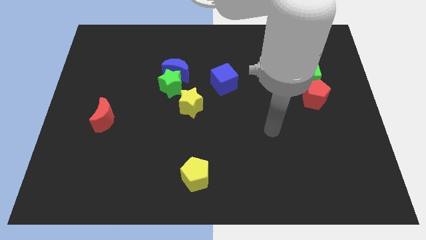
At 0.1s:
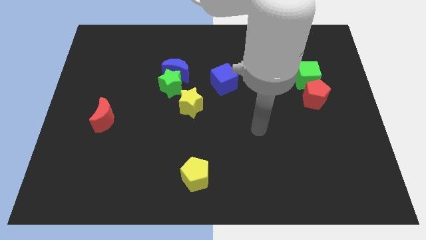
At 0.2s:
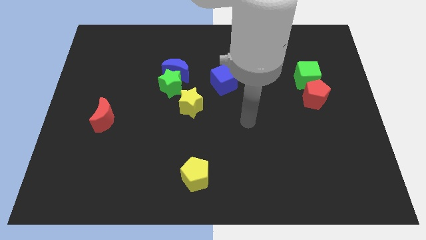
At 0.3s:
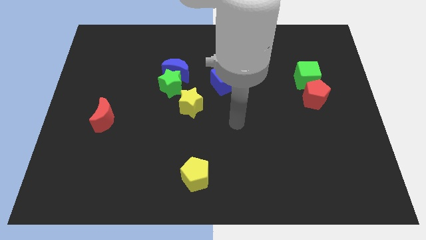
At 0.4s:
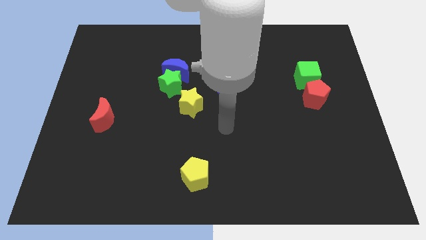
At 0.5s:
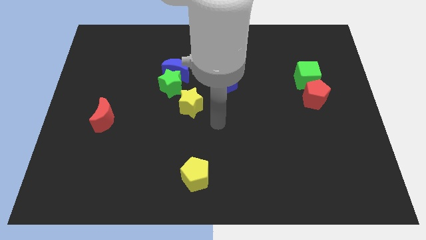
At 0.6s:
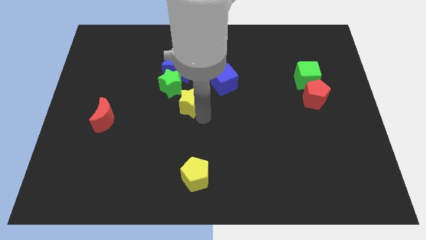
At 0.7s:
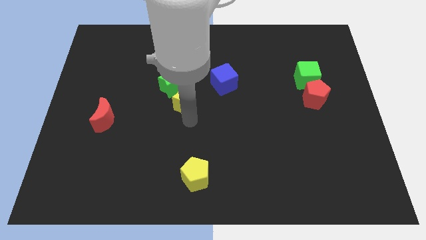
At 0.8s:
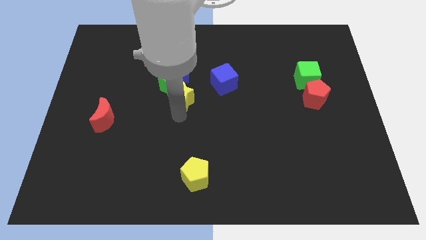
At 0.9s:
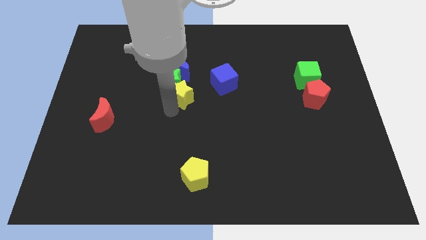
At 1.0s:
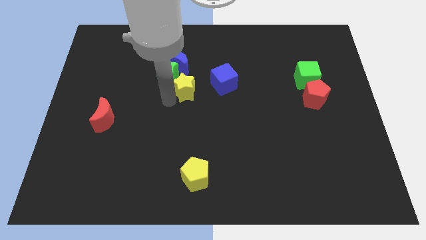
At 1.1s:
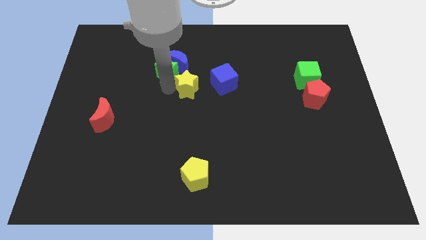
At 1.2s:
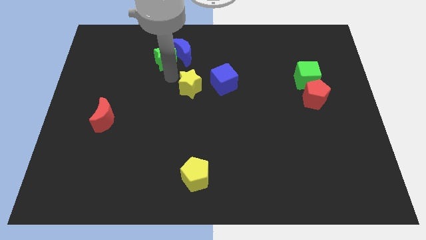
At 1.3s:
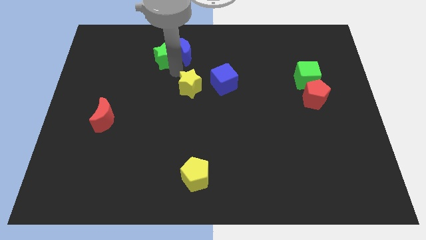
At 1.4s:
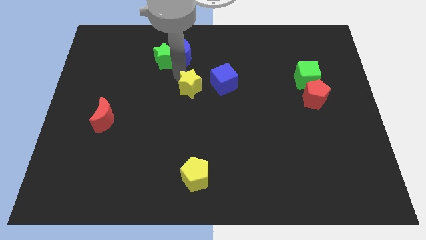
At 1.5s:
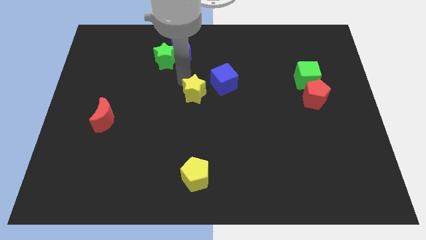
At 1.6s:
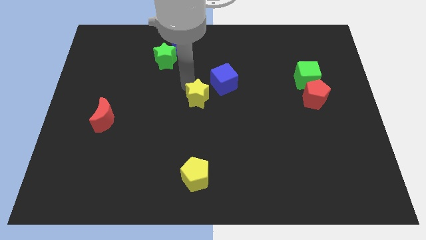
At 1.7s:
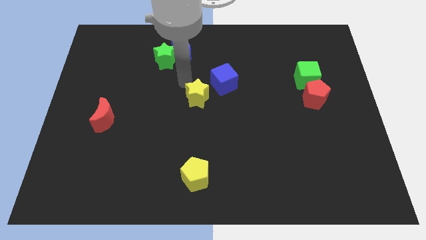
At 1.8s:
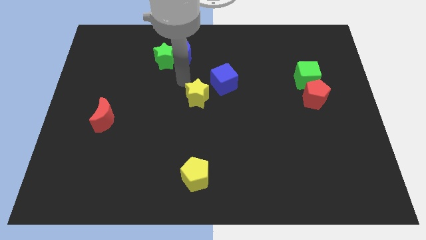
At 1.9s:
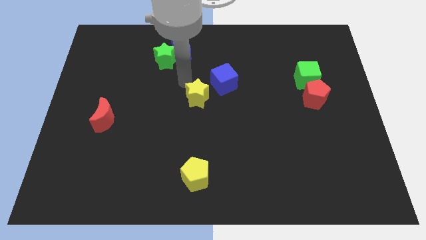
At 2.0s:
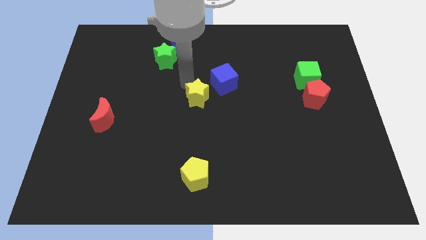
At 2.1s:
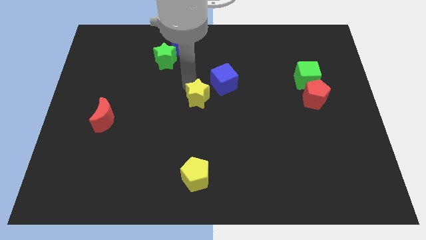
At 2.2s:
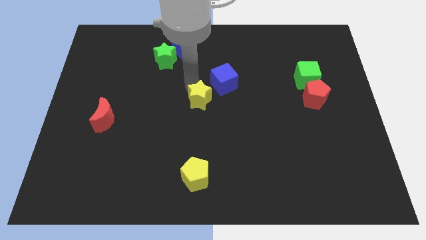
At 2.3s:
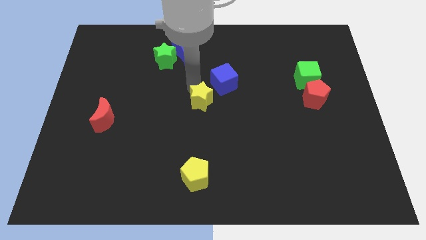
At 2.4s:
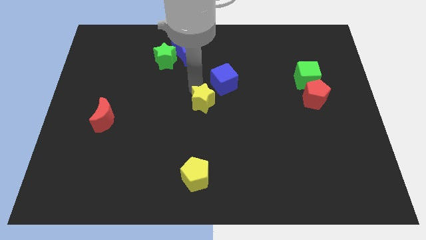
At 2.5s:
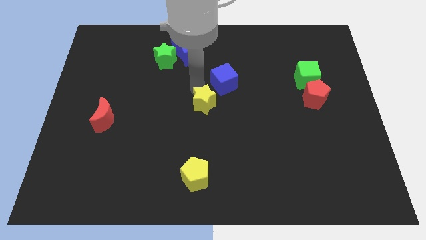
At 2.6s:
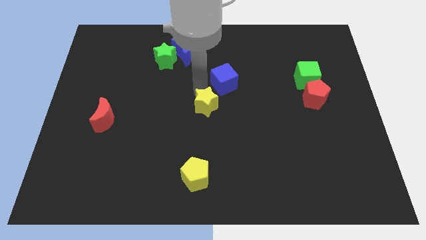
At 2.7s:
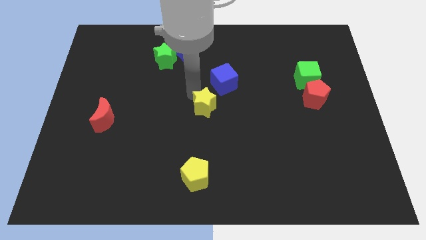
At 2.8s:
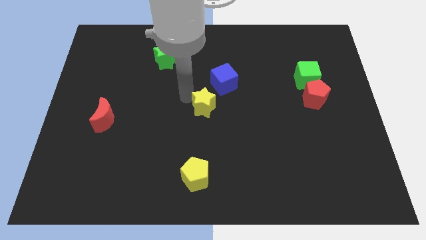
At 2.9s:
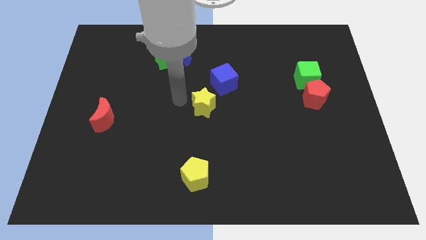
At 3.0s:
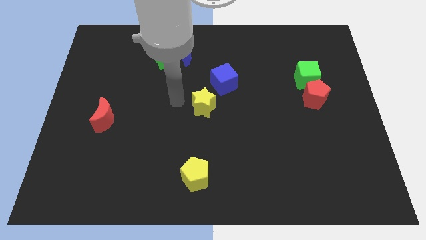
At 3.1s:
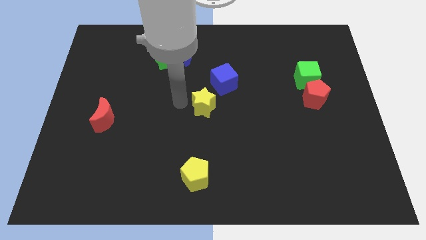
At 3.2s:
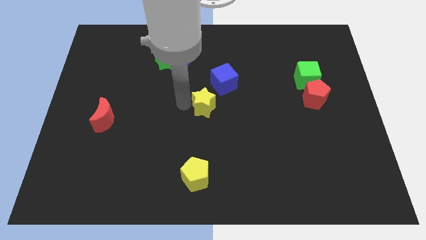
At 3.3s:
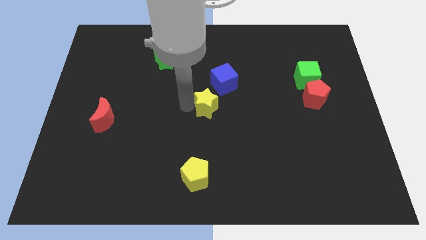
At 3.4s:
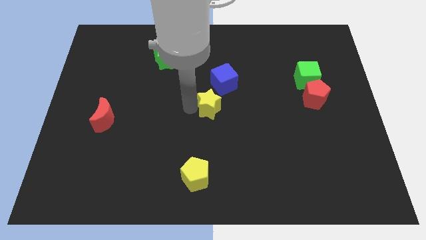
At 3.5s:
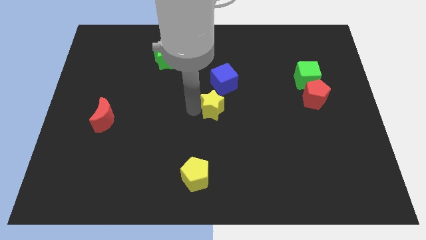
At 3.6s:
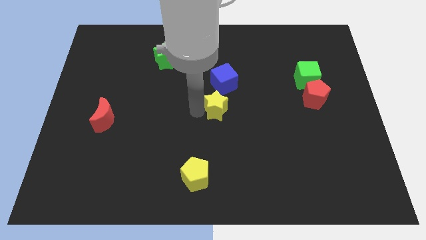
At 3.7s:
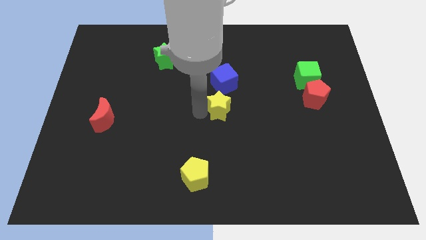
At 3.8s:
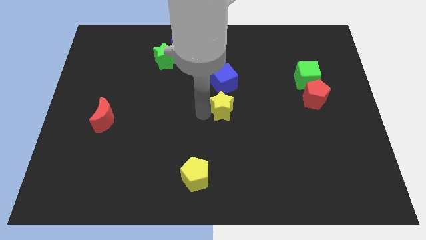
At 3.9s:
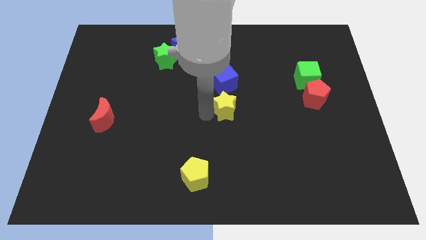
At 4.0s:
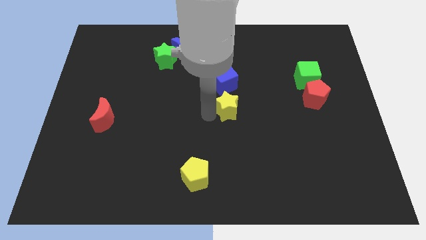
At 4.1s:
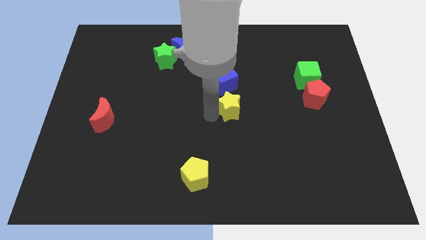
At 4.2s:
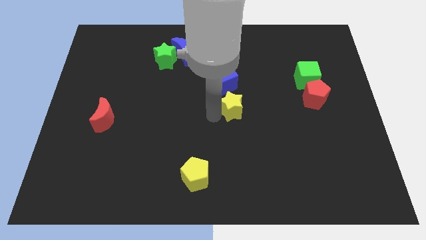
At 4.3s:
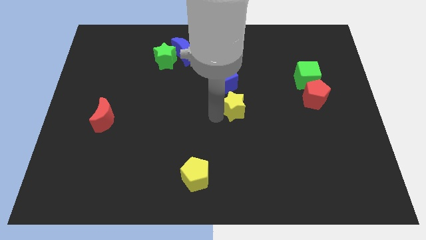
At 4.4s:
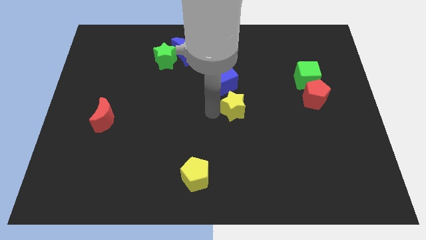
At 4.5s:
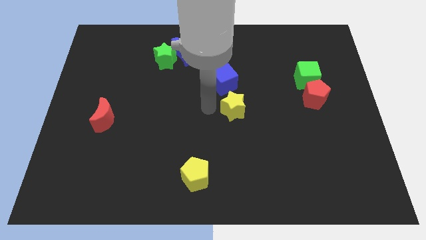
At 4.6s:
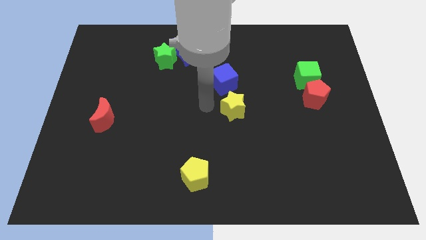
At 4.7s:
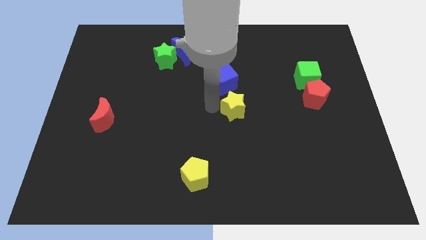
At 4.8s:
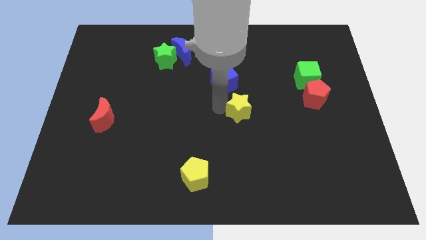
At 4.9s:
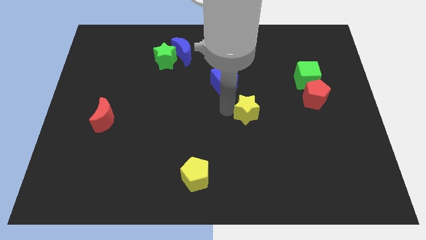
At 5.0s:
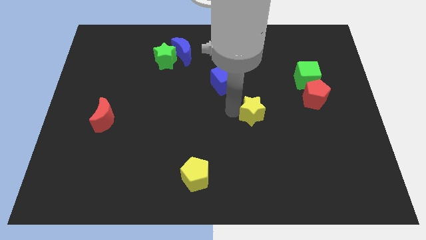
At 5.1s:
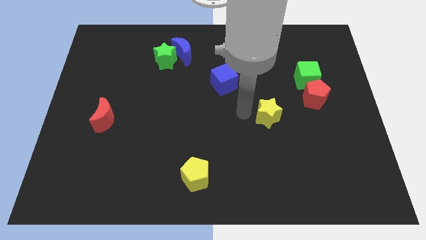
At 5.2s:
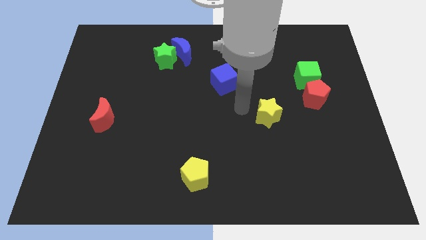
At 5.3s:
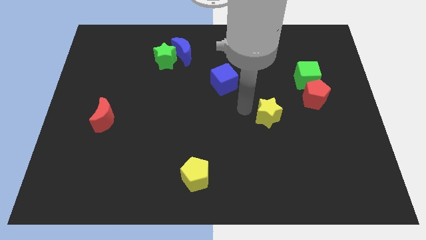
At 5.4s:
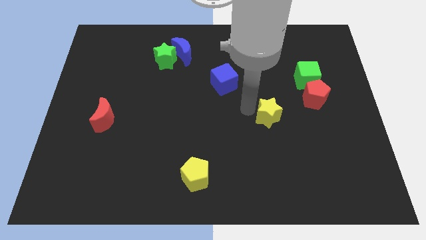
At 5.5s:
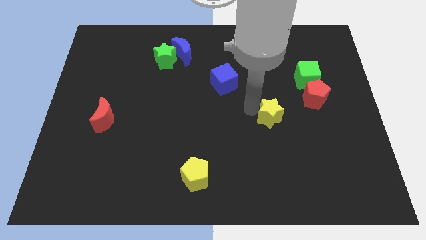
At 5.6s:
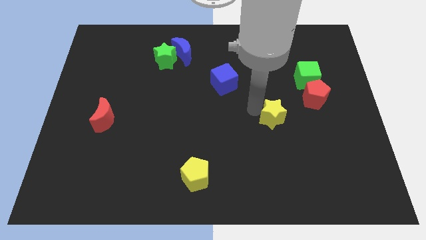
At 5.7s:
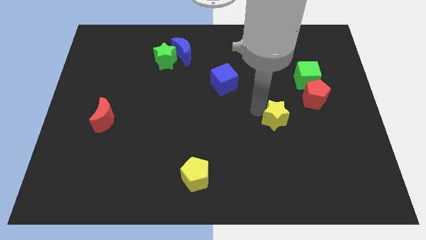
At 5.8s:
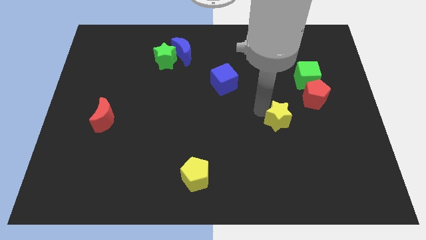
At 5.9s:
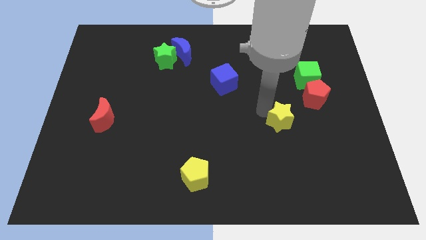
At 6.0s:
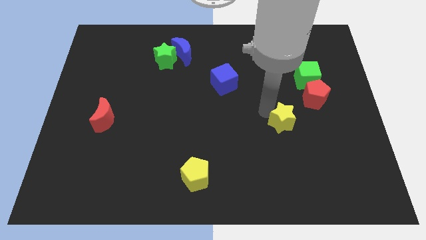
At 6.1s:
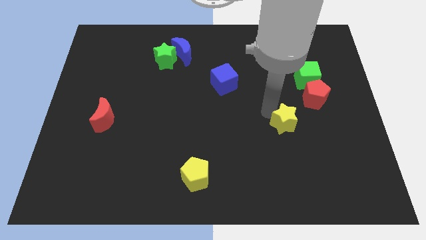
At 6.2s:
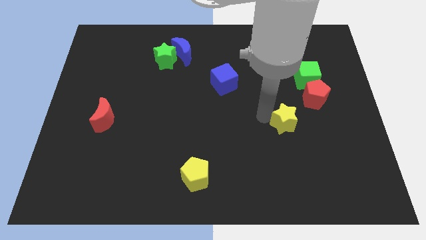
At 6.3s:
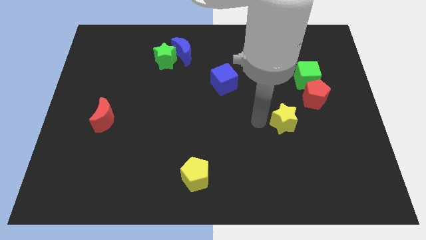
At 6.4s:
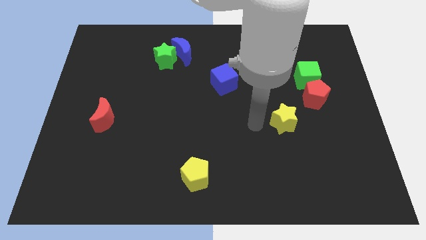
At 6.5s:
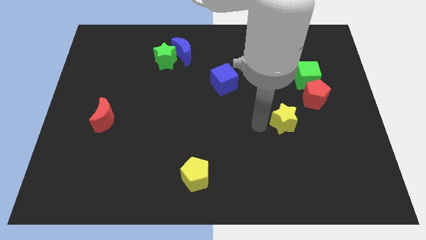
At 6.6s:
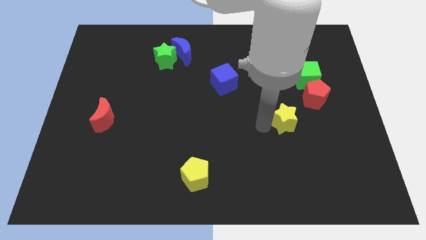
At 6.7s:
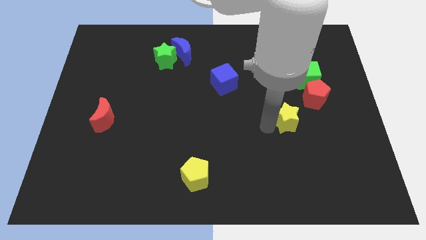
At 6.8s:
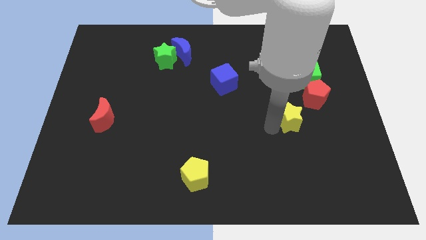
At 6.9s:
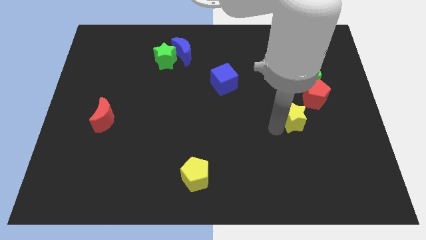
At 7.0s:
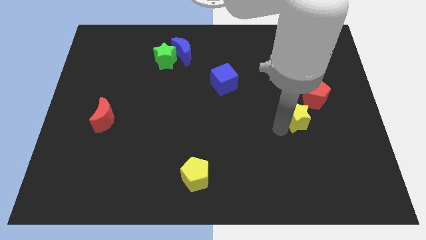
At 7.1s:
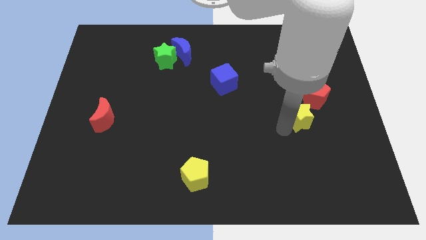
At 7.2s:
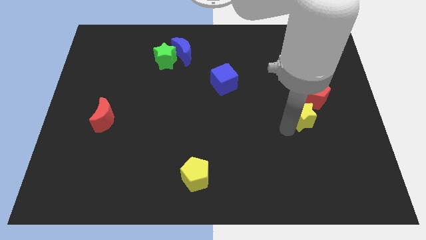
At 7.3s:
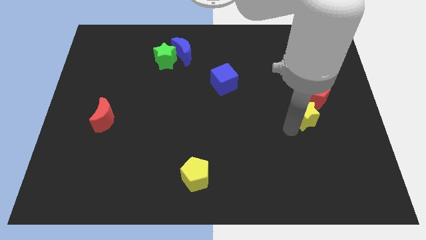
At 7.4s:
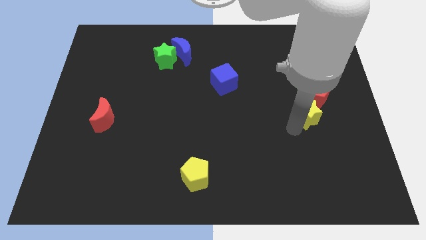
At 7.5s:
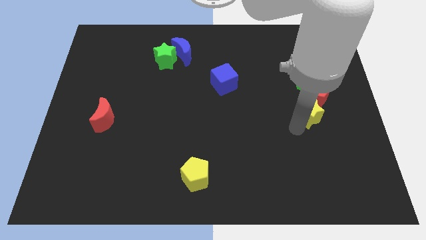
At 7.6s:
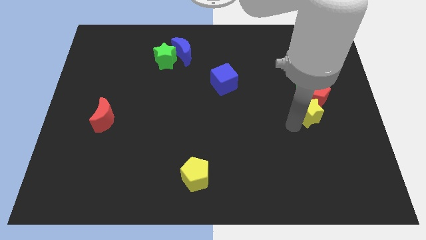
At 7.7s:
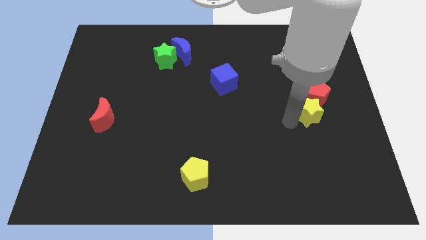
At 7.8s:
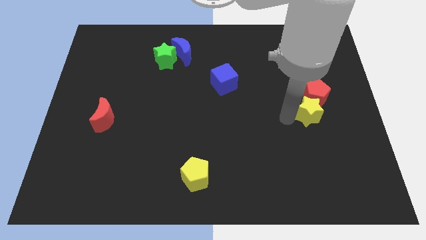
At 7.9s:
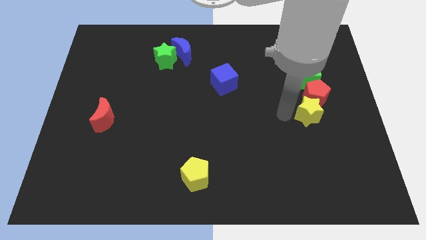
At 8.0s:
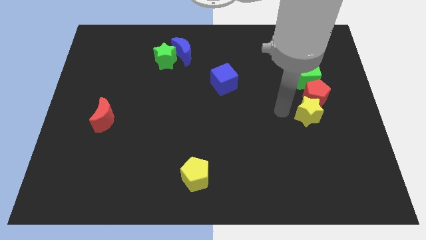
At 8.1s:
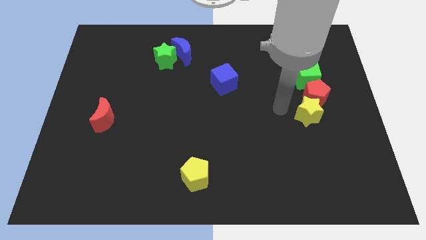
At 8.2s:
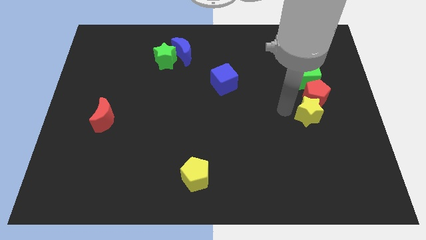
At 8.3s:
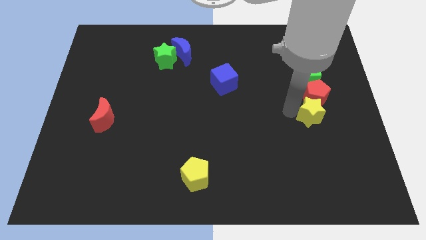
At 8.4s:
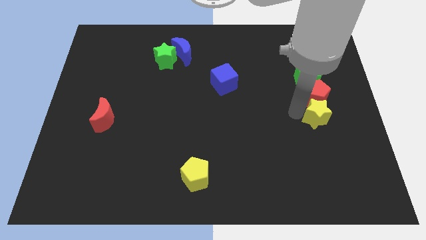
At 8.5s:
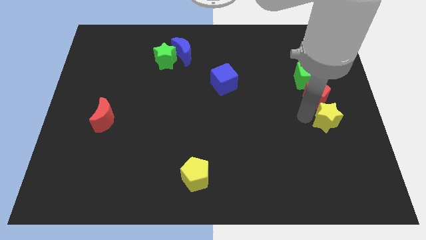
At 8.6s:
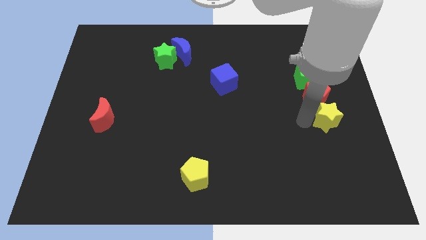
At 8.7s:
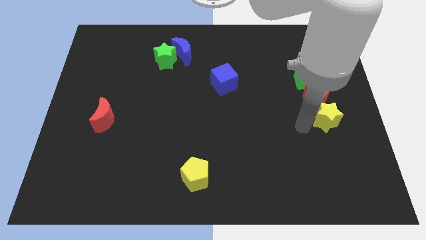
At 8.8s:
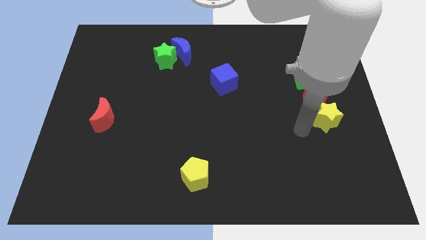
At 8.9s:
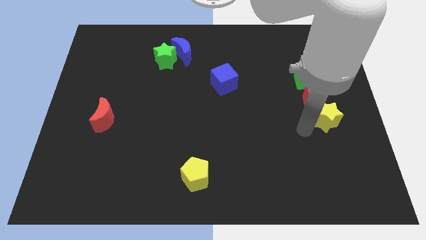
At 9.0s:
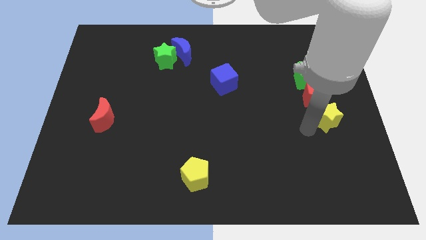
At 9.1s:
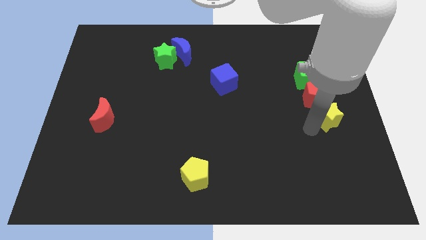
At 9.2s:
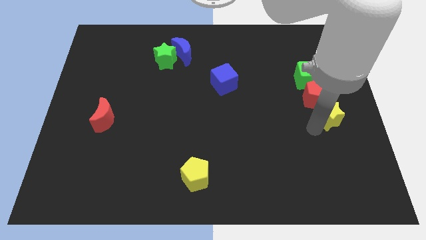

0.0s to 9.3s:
push the yellow star to the right side of the board
